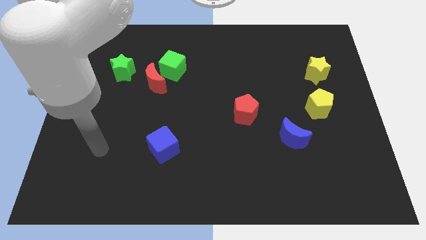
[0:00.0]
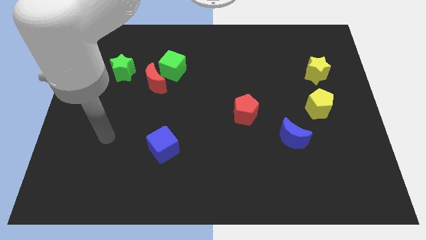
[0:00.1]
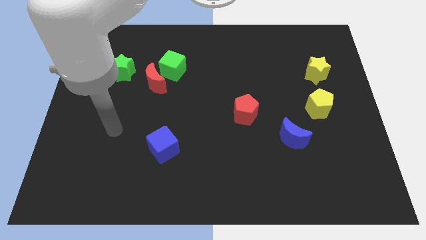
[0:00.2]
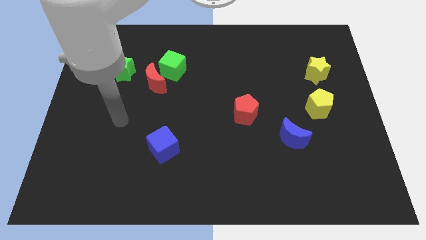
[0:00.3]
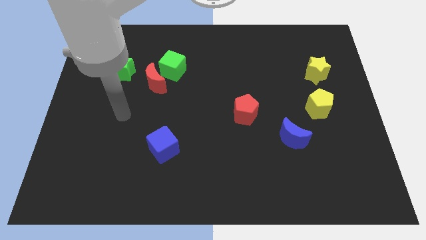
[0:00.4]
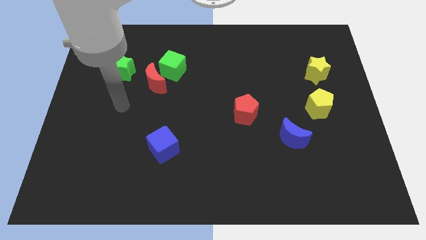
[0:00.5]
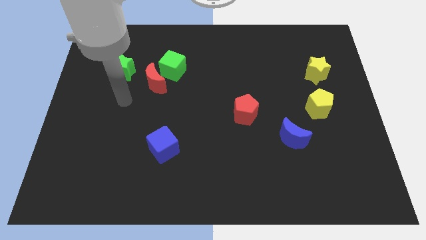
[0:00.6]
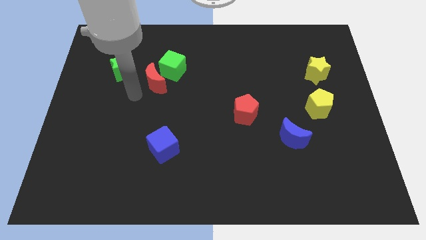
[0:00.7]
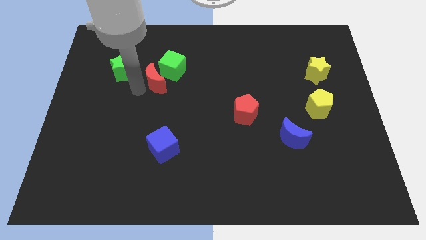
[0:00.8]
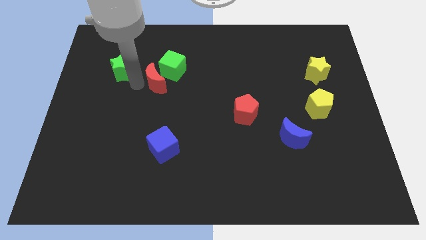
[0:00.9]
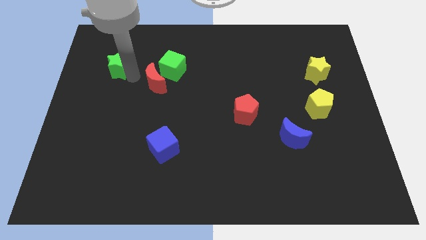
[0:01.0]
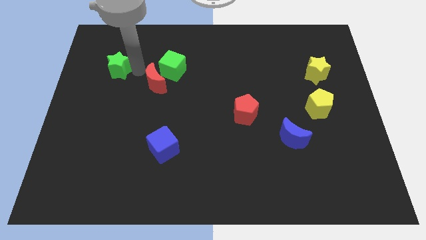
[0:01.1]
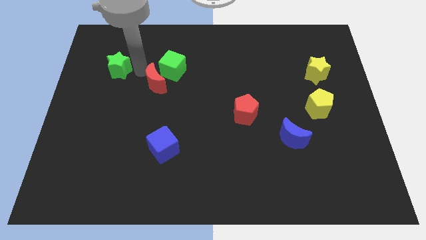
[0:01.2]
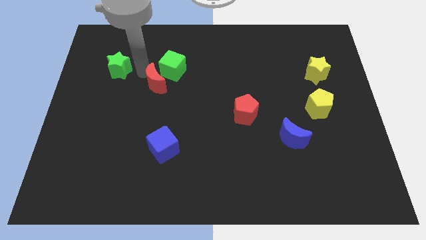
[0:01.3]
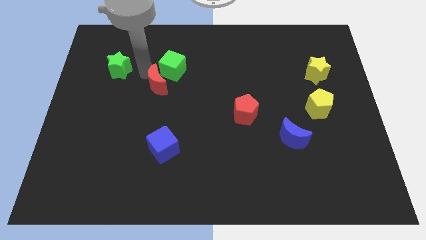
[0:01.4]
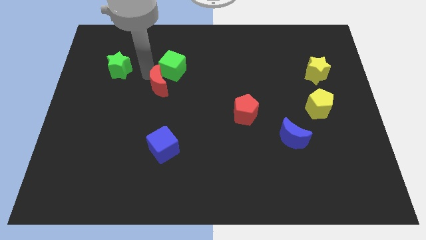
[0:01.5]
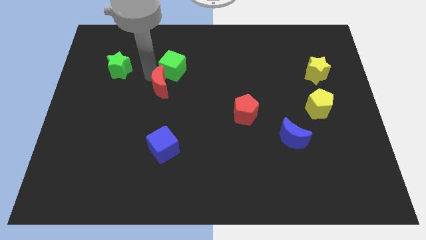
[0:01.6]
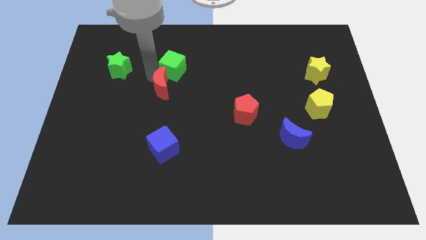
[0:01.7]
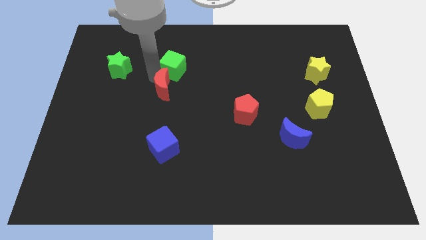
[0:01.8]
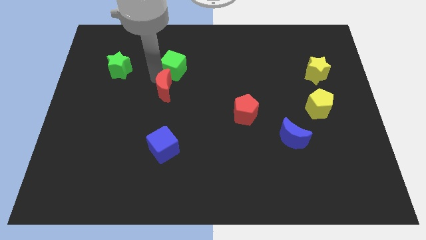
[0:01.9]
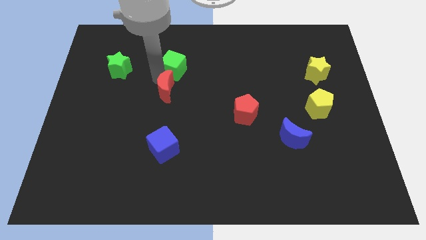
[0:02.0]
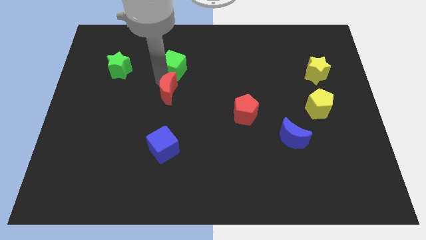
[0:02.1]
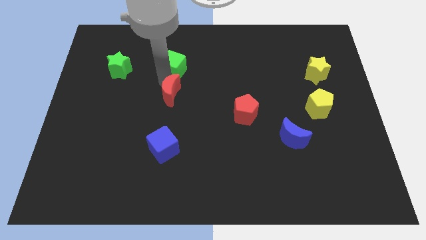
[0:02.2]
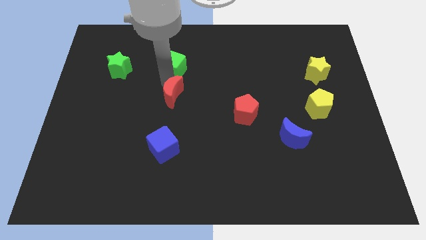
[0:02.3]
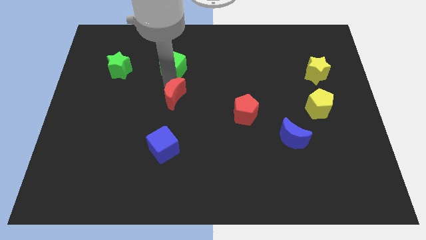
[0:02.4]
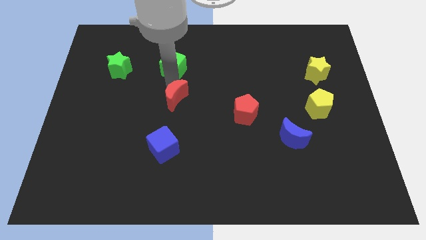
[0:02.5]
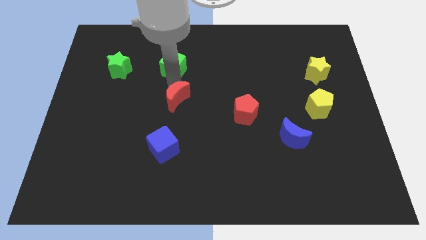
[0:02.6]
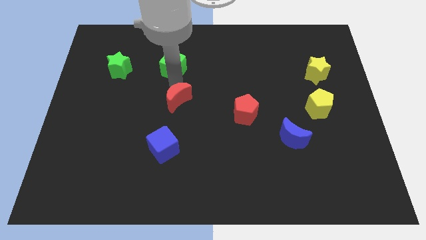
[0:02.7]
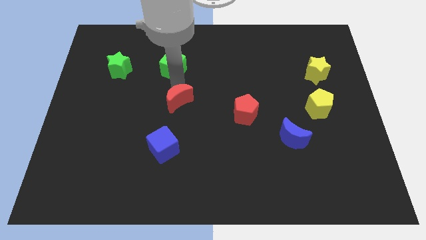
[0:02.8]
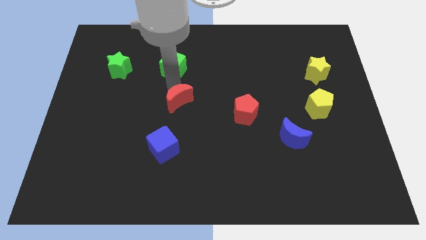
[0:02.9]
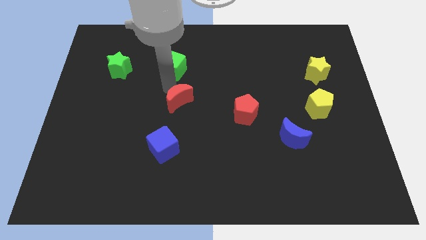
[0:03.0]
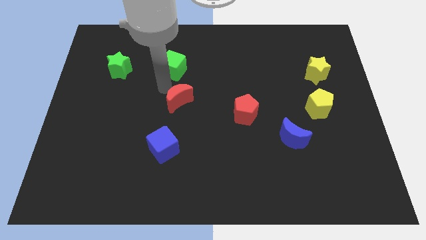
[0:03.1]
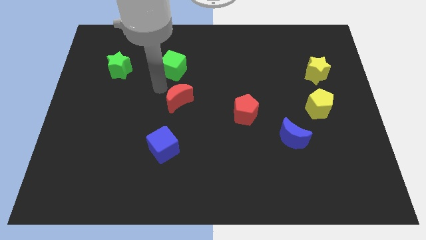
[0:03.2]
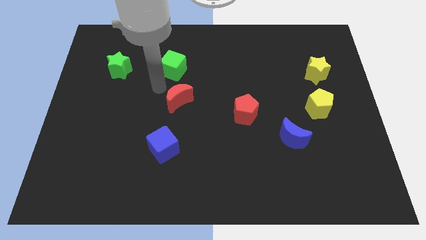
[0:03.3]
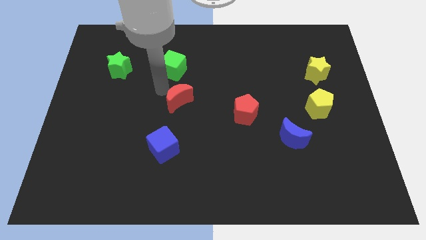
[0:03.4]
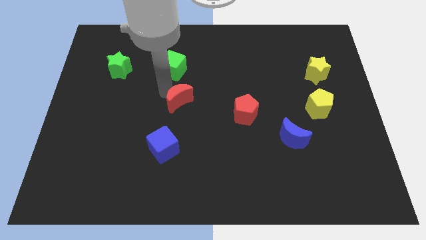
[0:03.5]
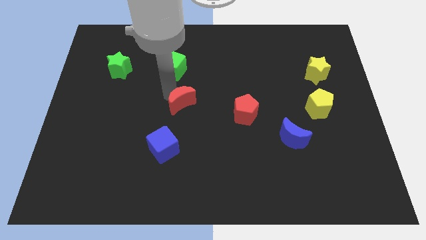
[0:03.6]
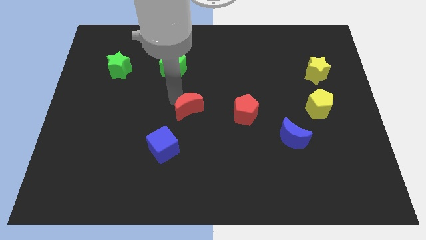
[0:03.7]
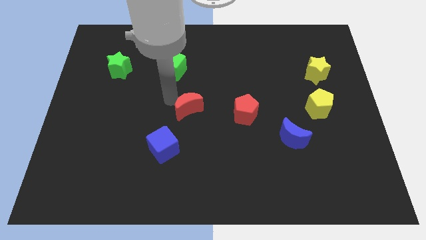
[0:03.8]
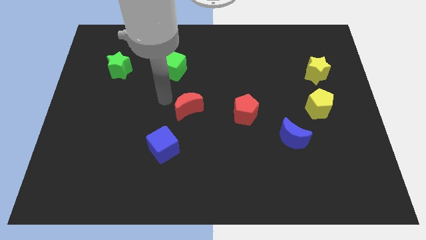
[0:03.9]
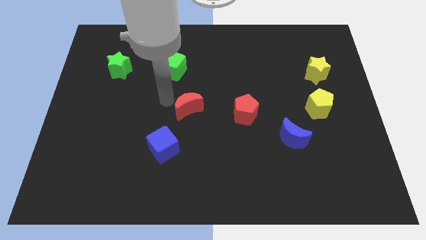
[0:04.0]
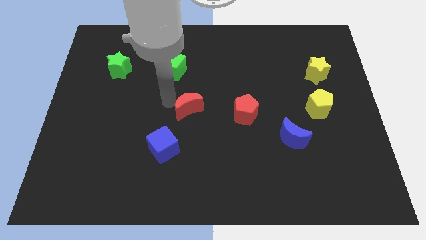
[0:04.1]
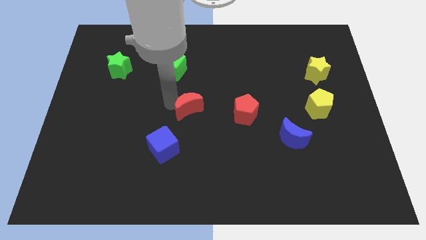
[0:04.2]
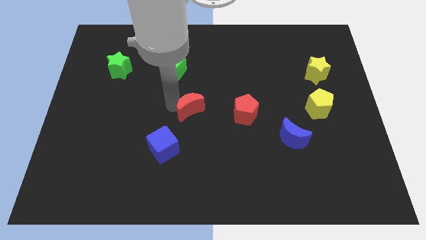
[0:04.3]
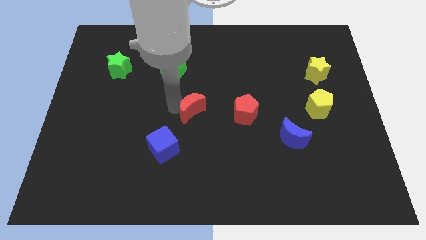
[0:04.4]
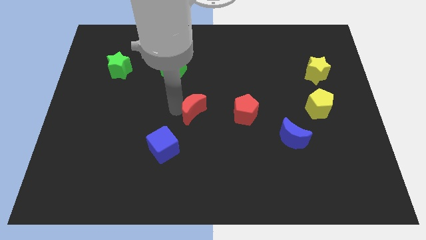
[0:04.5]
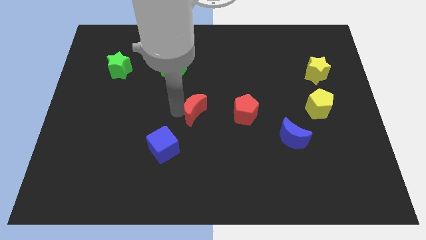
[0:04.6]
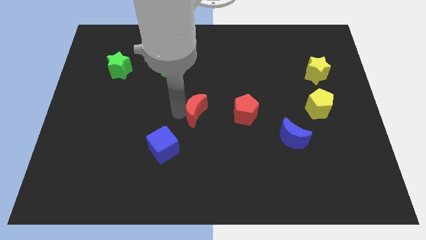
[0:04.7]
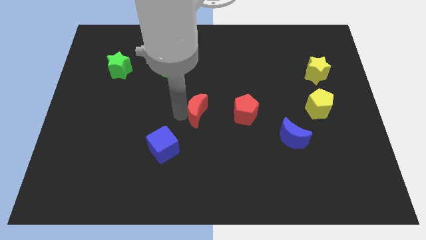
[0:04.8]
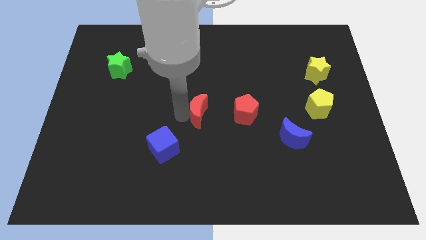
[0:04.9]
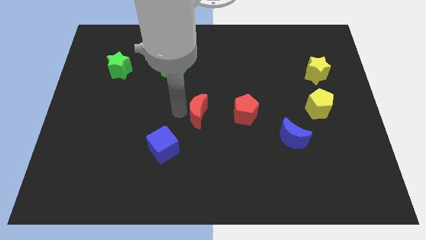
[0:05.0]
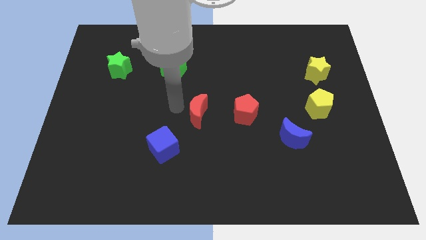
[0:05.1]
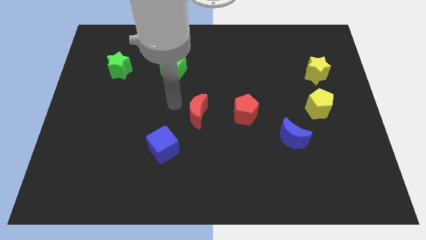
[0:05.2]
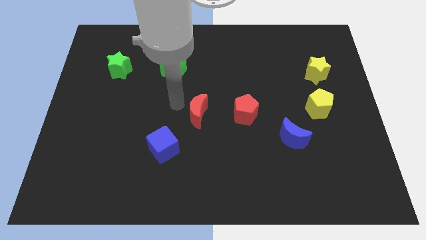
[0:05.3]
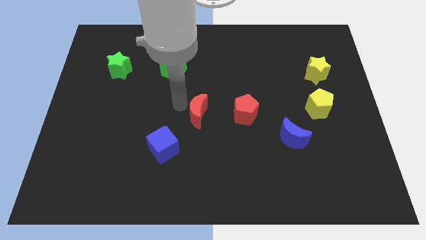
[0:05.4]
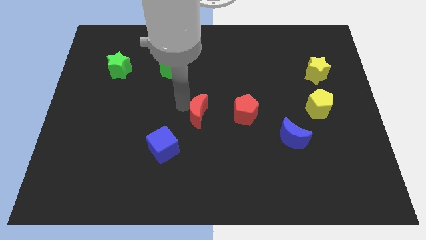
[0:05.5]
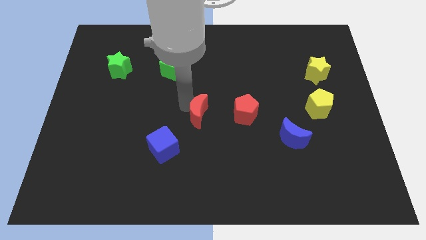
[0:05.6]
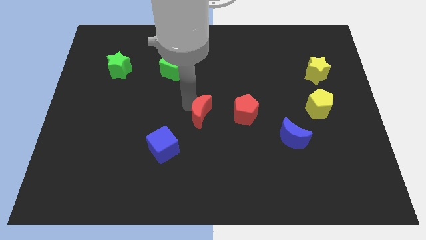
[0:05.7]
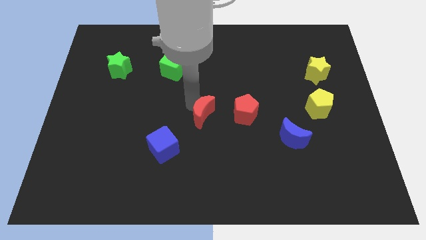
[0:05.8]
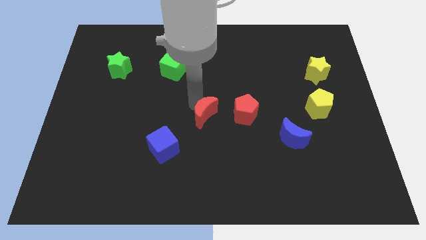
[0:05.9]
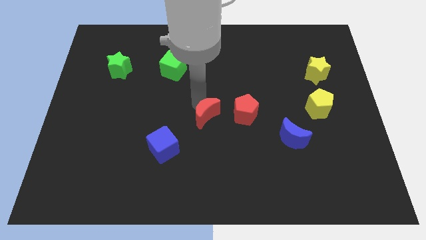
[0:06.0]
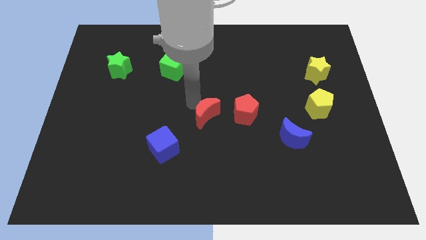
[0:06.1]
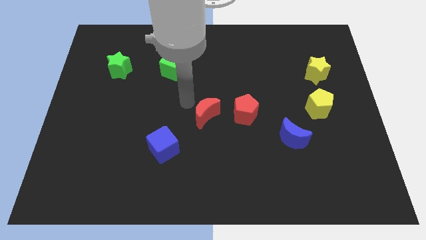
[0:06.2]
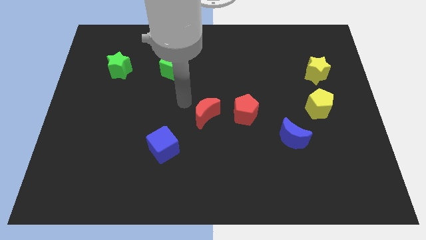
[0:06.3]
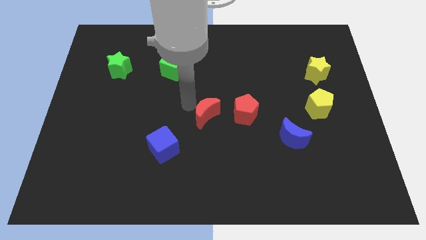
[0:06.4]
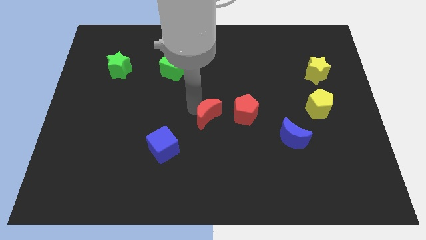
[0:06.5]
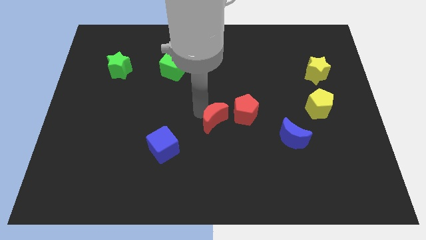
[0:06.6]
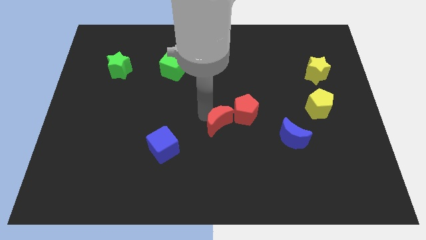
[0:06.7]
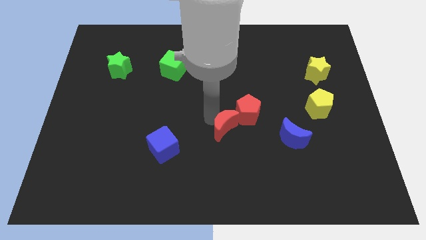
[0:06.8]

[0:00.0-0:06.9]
put the red moon left of the blue moon
